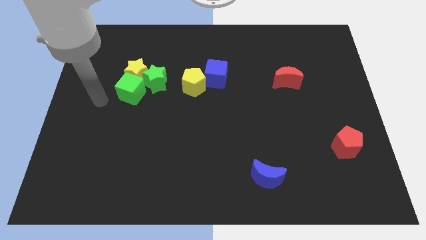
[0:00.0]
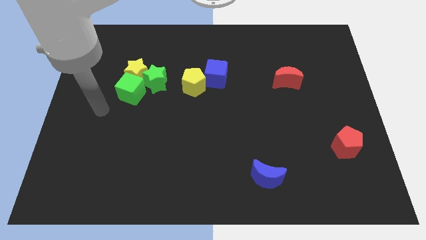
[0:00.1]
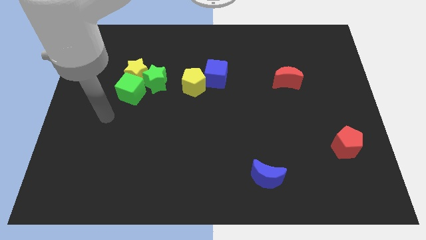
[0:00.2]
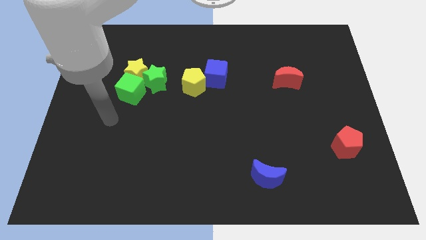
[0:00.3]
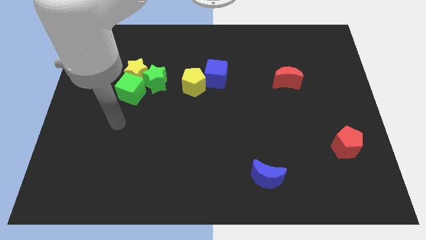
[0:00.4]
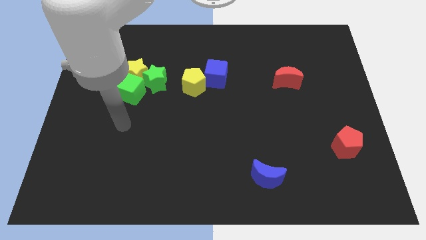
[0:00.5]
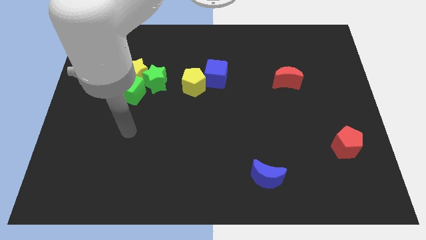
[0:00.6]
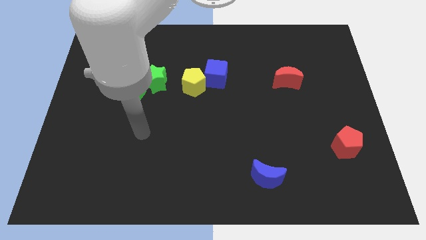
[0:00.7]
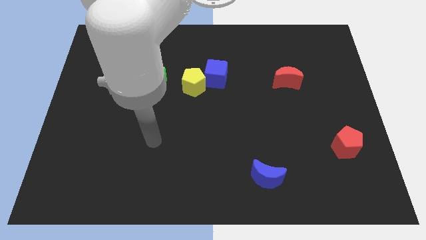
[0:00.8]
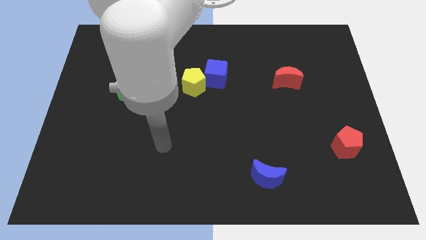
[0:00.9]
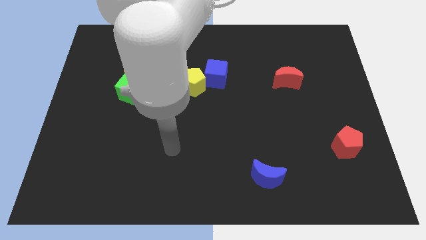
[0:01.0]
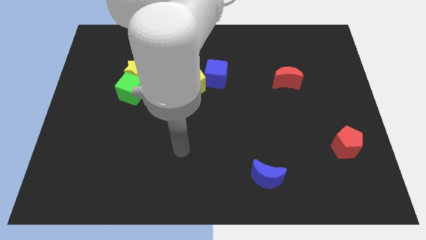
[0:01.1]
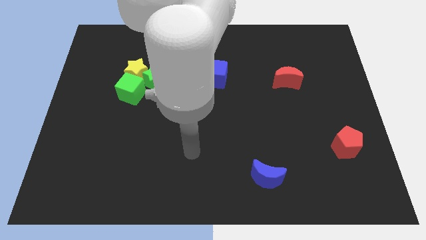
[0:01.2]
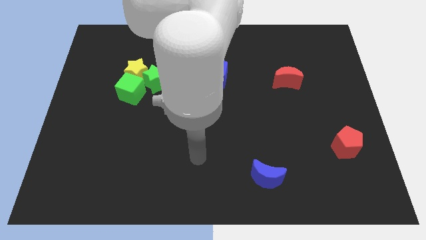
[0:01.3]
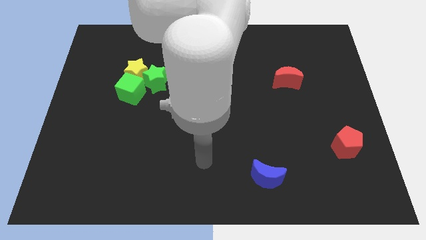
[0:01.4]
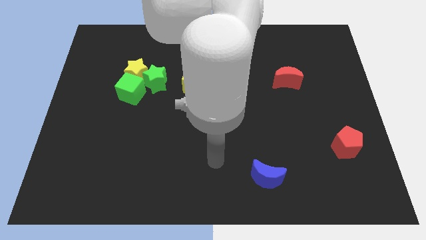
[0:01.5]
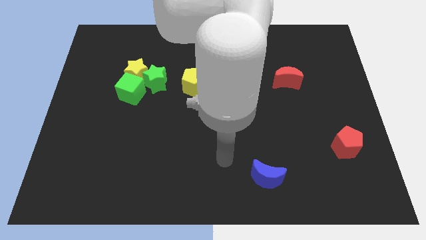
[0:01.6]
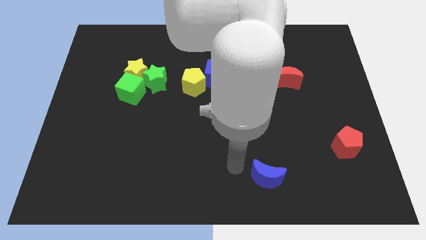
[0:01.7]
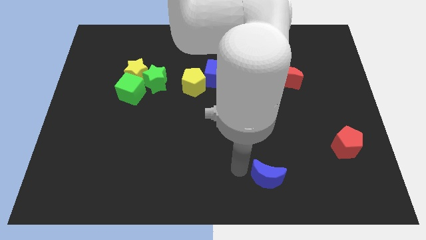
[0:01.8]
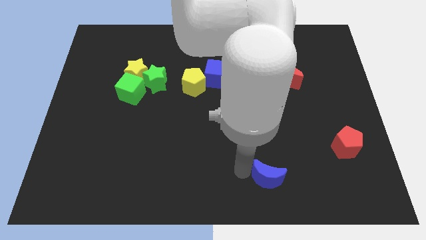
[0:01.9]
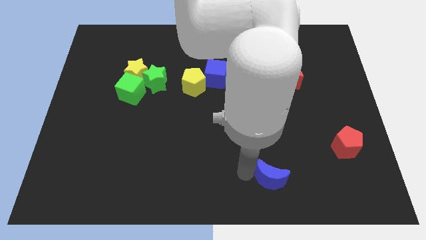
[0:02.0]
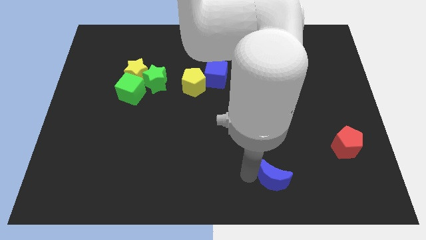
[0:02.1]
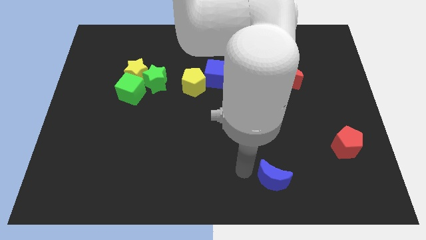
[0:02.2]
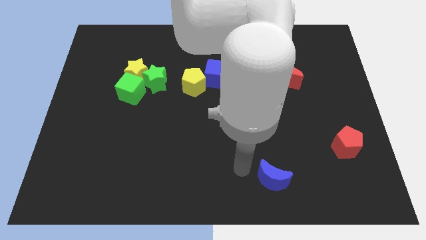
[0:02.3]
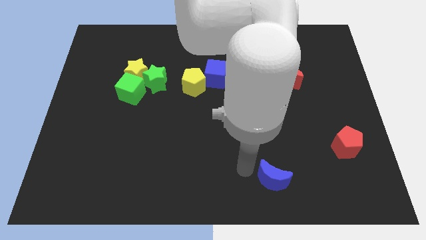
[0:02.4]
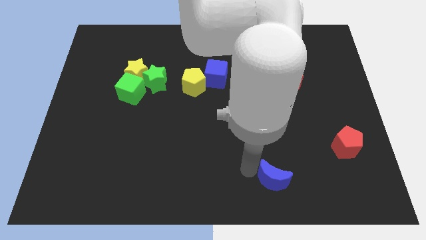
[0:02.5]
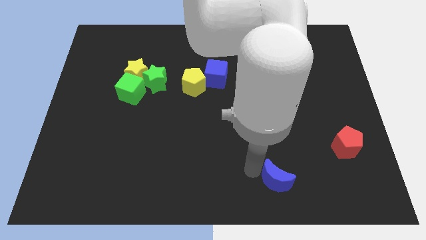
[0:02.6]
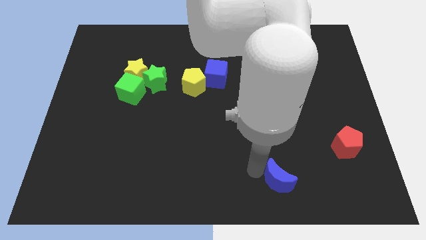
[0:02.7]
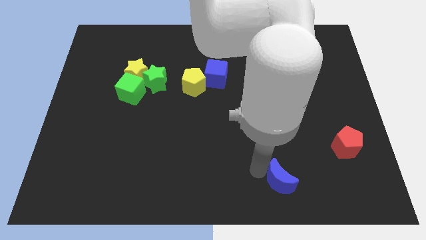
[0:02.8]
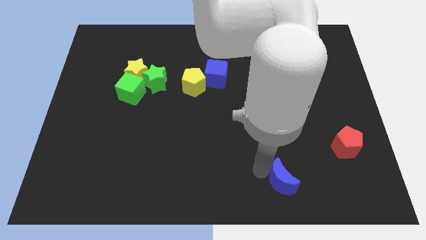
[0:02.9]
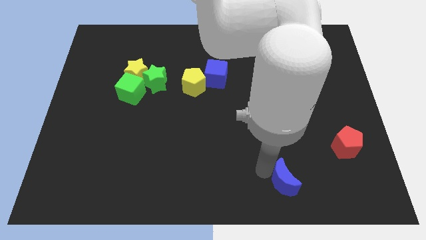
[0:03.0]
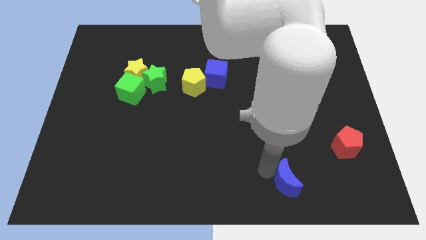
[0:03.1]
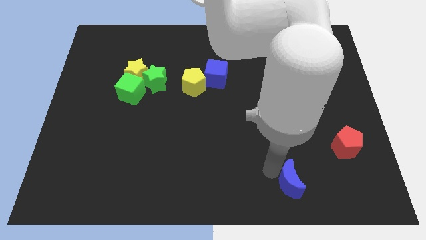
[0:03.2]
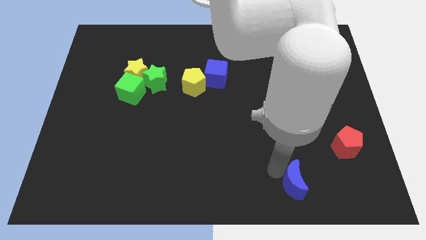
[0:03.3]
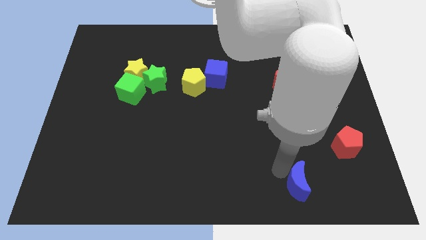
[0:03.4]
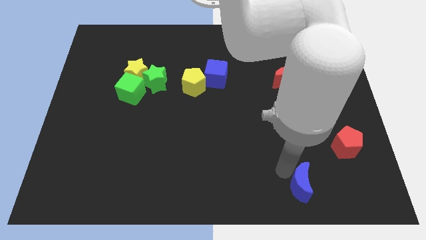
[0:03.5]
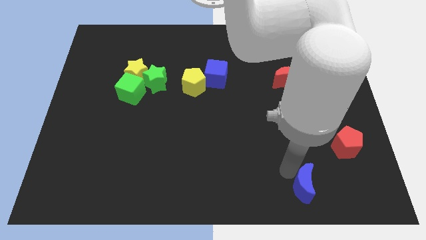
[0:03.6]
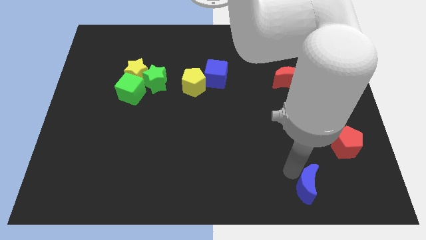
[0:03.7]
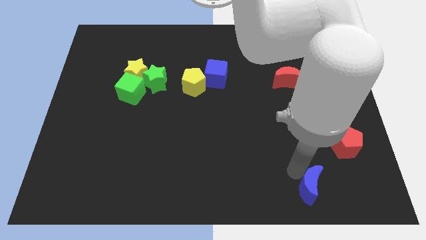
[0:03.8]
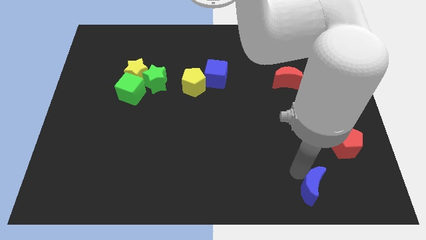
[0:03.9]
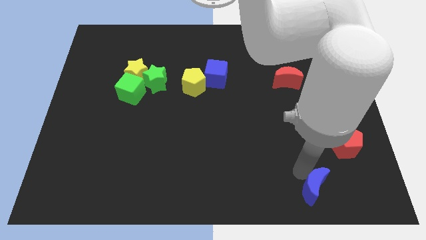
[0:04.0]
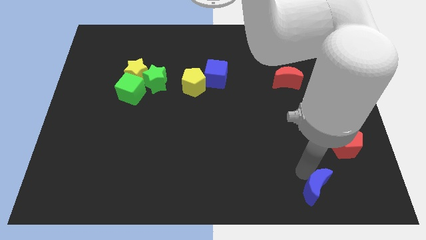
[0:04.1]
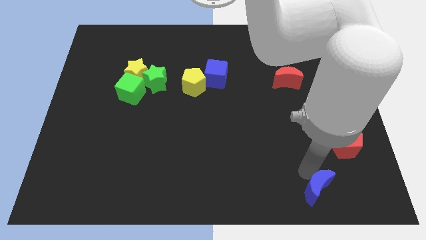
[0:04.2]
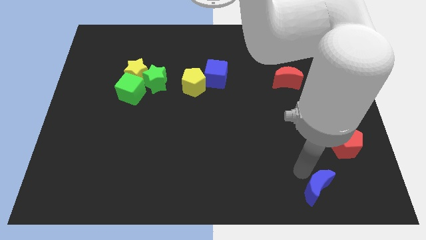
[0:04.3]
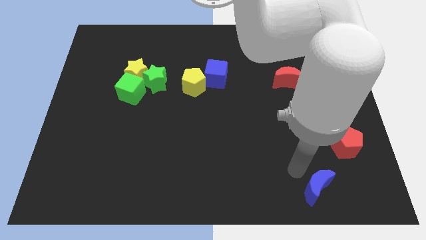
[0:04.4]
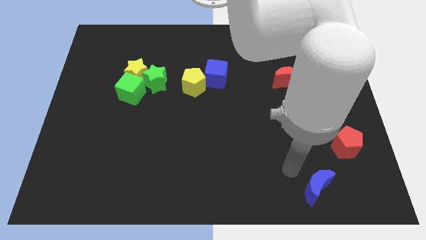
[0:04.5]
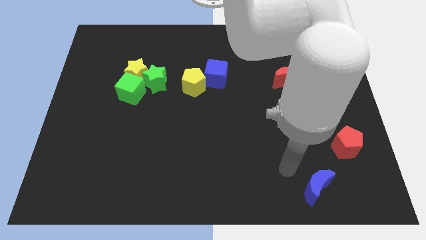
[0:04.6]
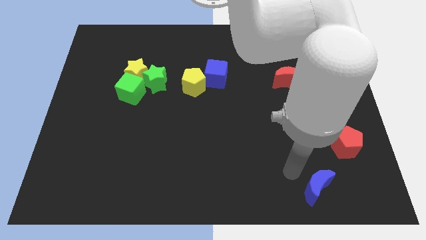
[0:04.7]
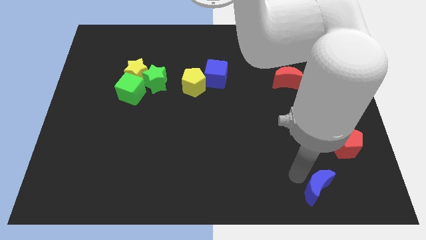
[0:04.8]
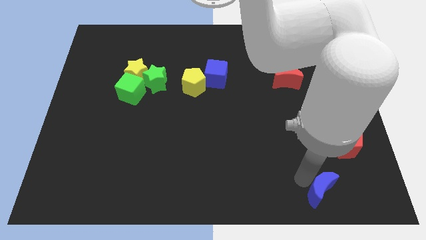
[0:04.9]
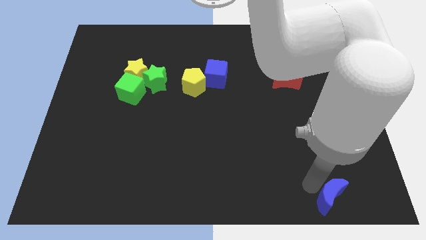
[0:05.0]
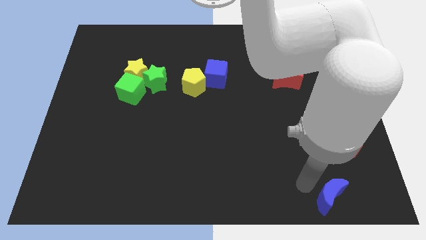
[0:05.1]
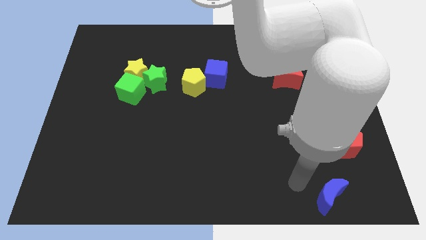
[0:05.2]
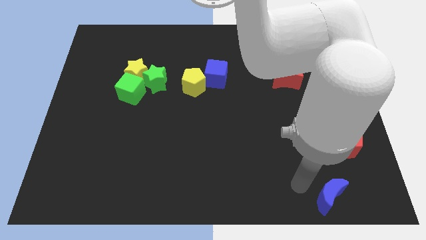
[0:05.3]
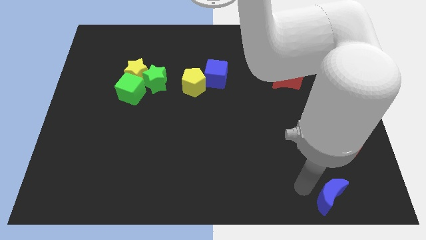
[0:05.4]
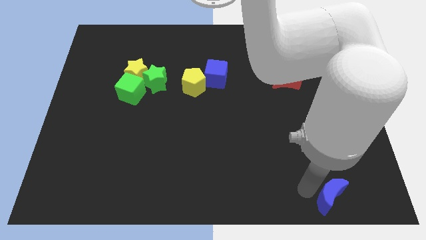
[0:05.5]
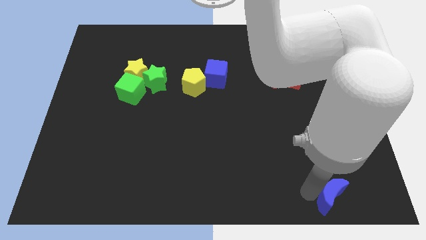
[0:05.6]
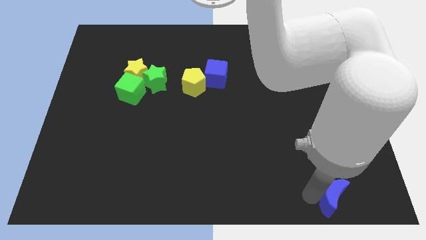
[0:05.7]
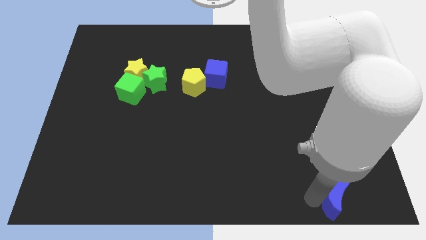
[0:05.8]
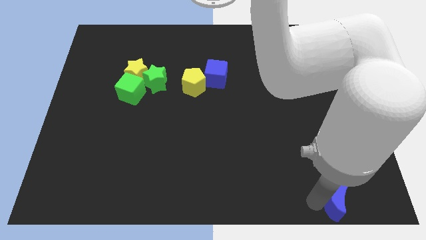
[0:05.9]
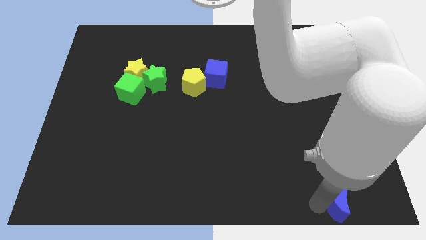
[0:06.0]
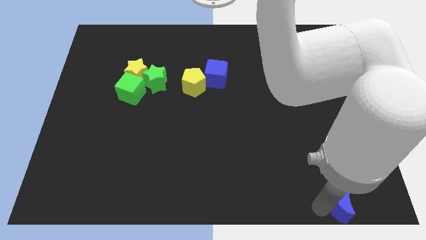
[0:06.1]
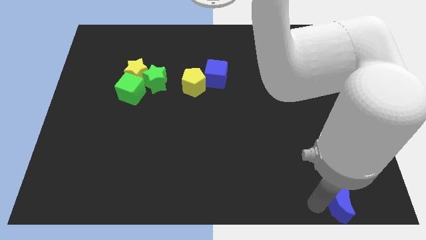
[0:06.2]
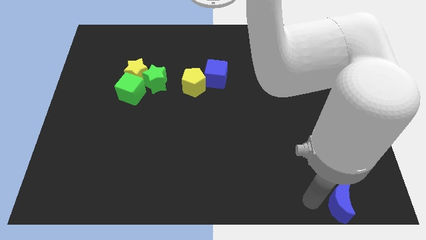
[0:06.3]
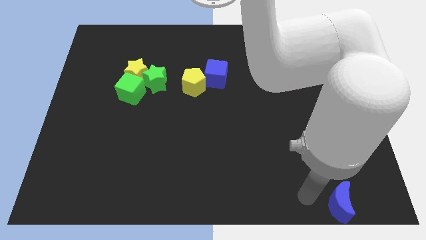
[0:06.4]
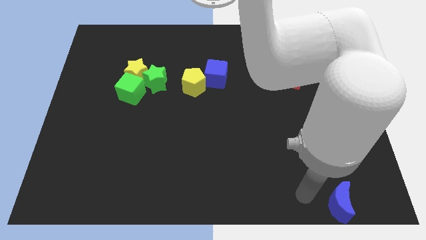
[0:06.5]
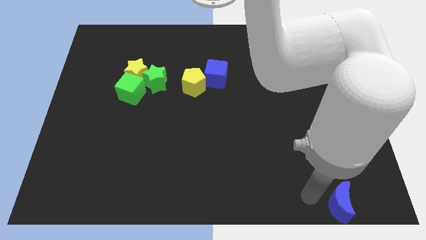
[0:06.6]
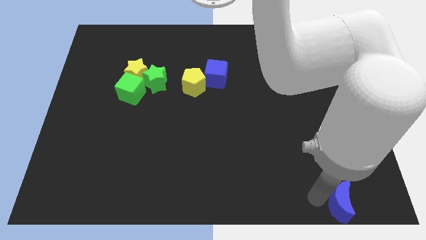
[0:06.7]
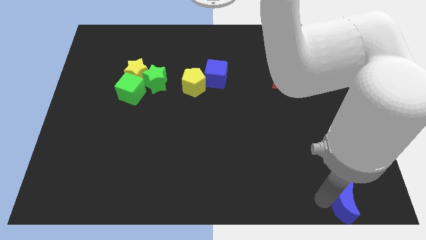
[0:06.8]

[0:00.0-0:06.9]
push the blue moon to the bottom right of the board
